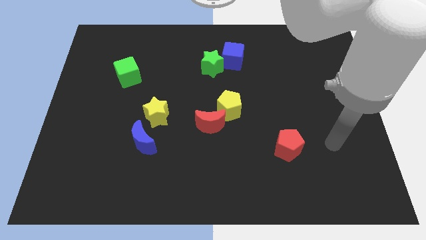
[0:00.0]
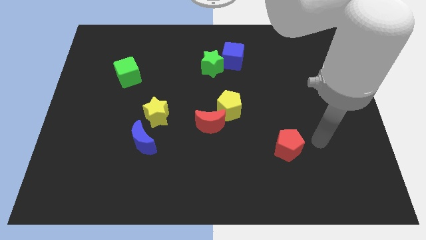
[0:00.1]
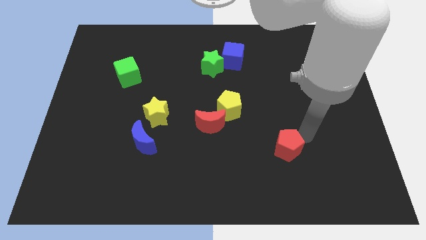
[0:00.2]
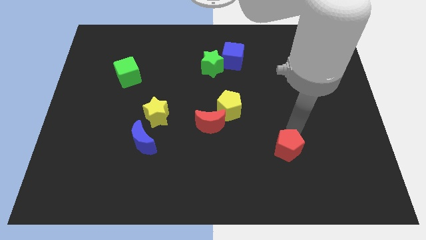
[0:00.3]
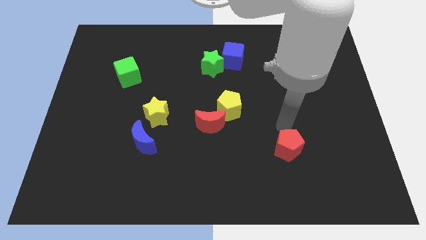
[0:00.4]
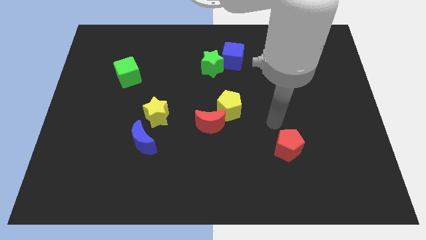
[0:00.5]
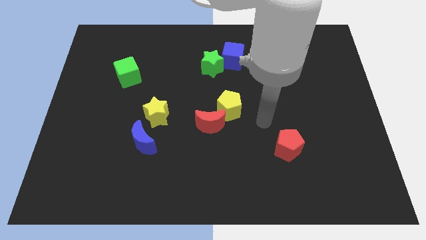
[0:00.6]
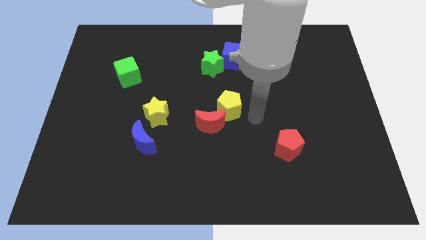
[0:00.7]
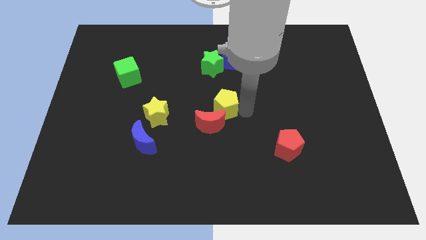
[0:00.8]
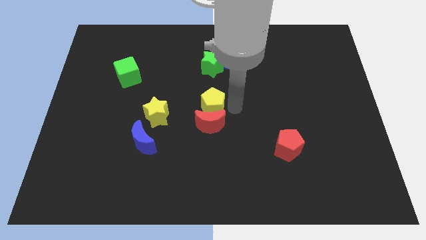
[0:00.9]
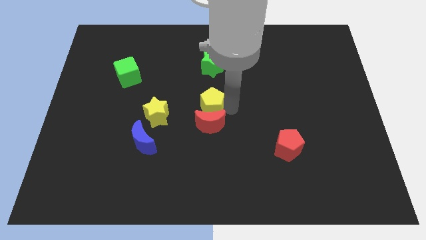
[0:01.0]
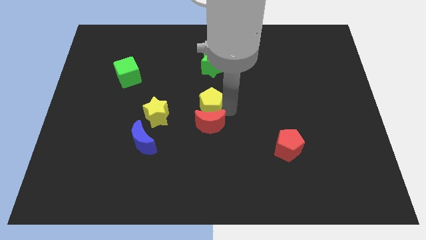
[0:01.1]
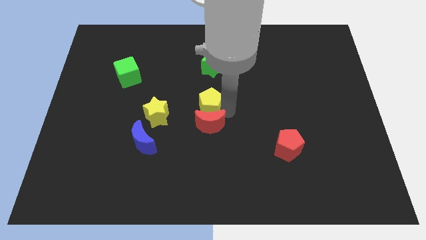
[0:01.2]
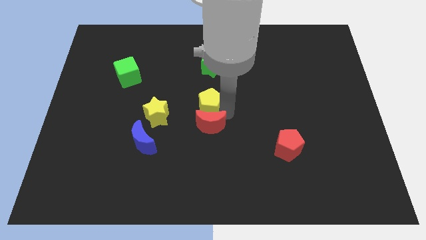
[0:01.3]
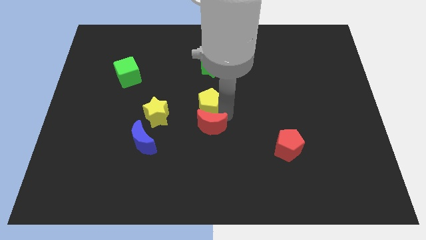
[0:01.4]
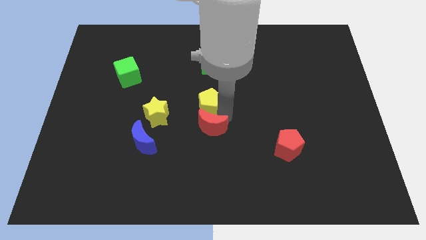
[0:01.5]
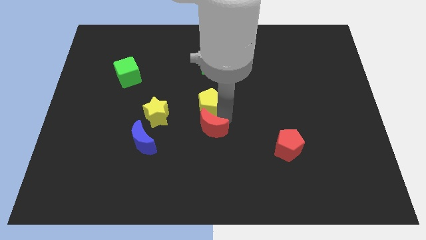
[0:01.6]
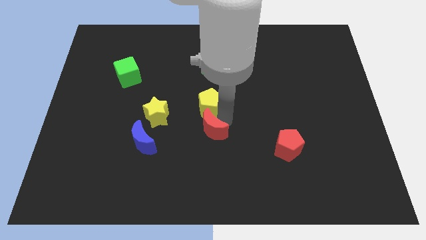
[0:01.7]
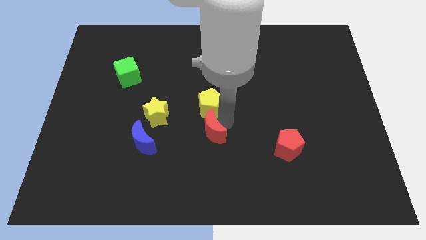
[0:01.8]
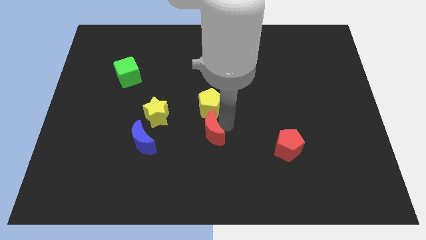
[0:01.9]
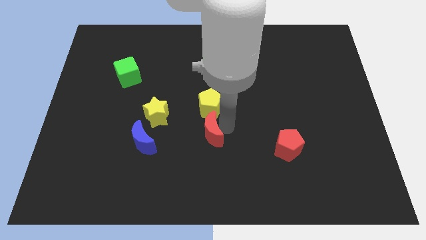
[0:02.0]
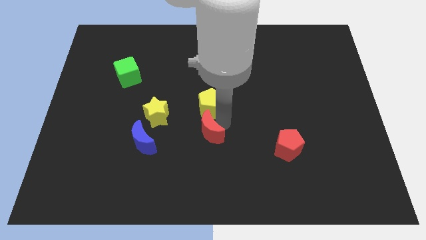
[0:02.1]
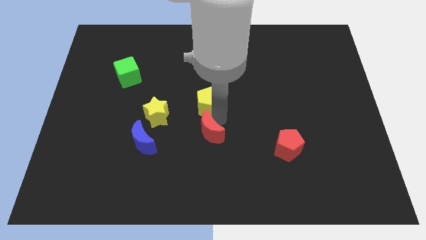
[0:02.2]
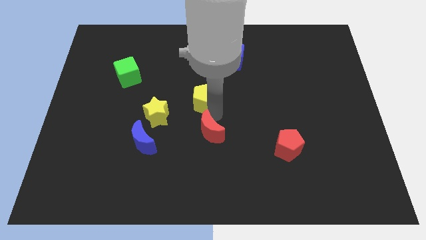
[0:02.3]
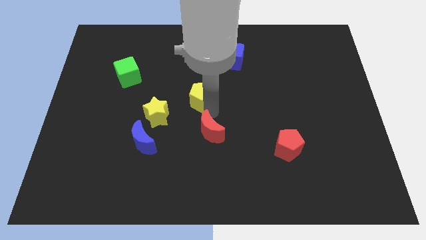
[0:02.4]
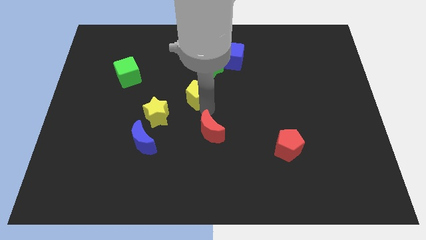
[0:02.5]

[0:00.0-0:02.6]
pull the red moon apart from the yellow pentagon

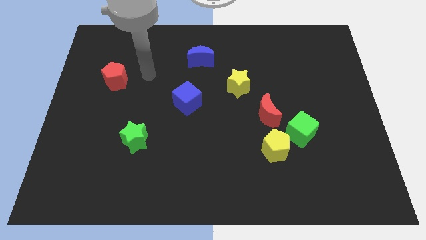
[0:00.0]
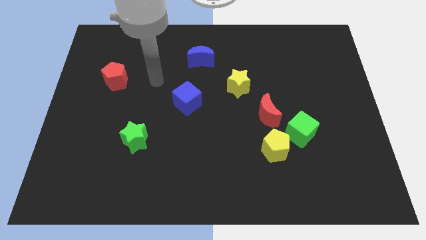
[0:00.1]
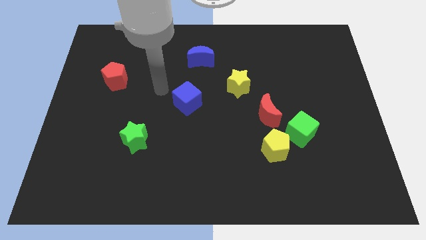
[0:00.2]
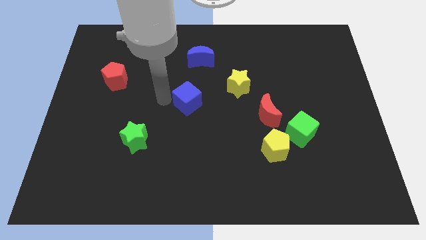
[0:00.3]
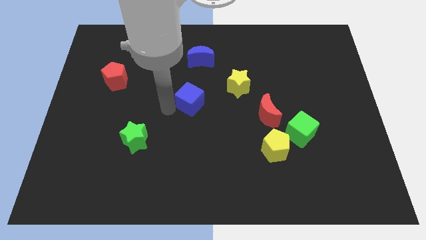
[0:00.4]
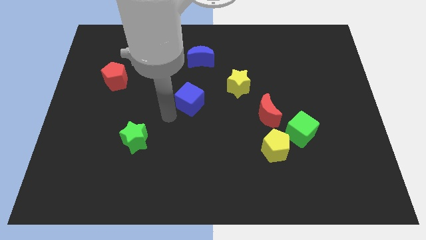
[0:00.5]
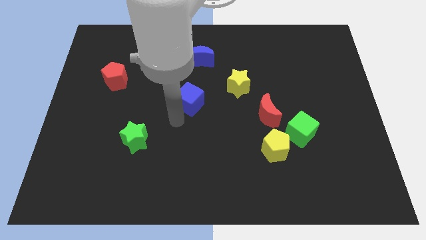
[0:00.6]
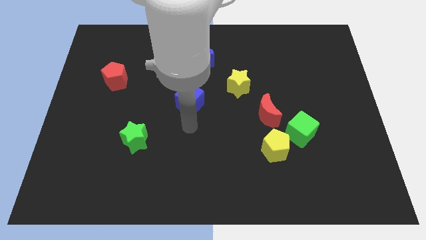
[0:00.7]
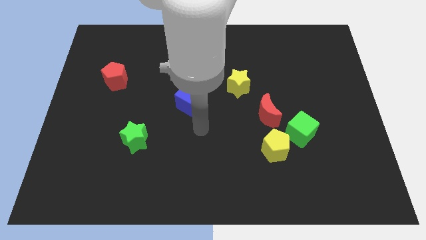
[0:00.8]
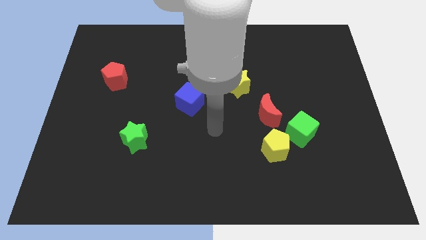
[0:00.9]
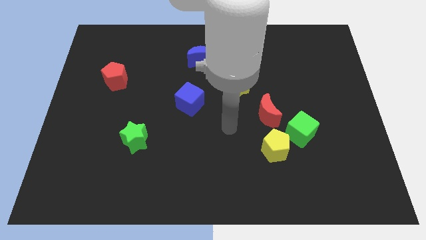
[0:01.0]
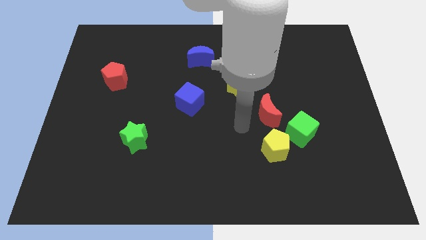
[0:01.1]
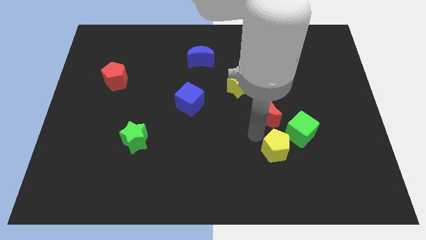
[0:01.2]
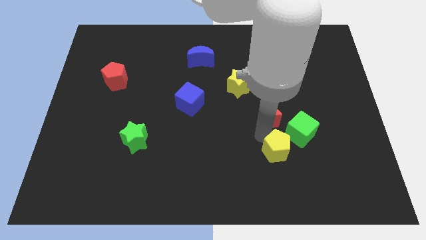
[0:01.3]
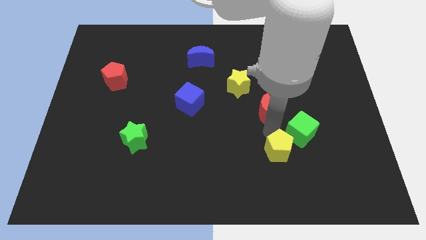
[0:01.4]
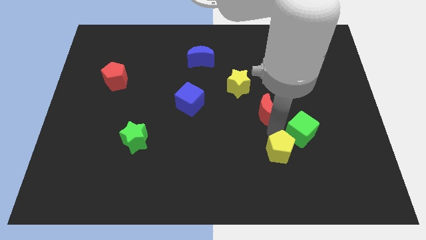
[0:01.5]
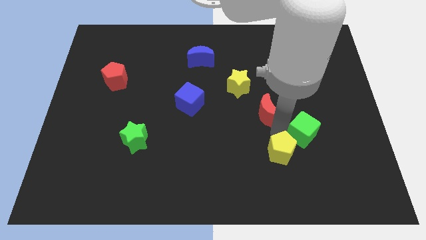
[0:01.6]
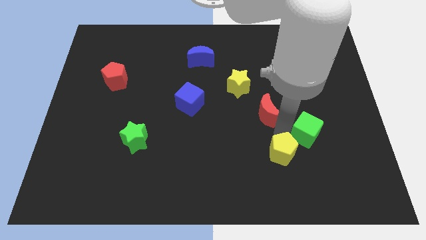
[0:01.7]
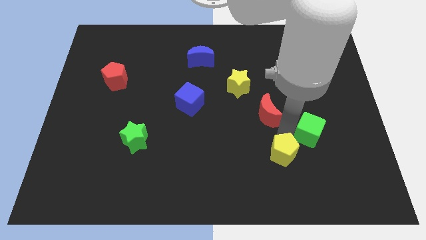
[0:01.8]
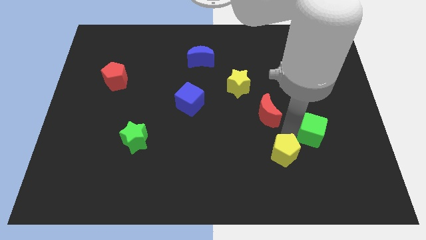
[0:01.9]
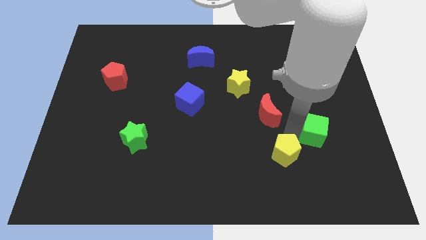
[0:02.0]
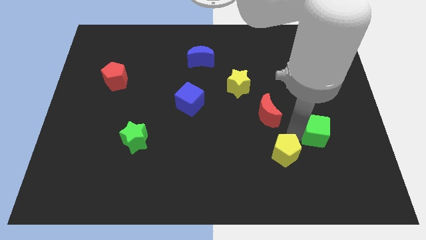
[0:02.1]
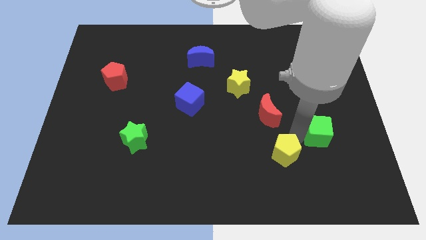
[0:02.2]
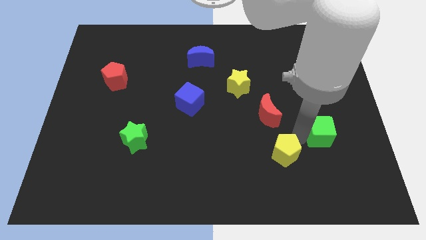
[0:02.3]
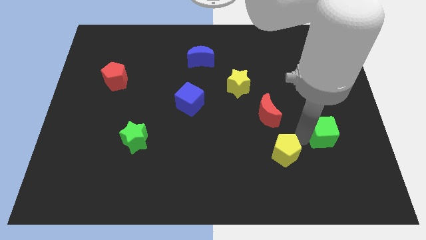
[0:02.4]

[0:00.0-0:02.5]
move the green cube away from the yellow pentagon and red moon

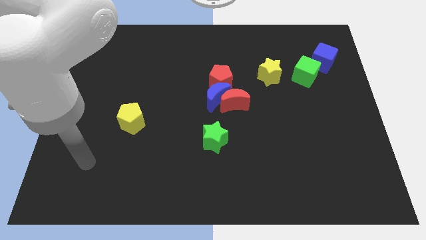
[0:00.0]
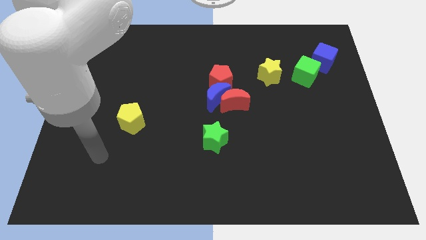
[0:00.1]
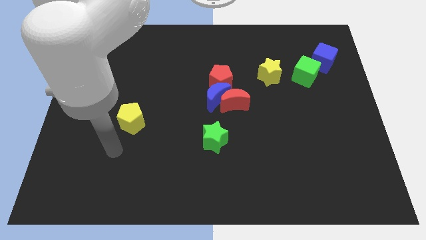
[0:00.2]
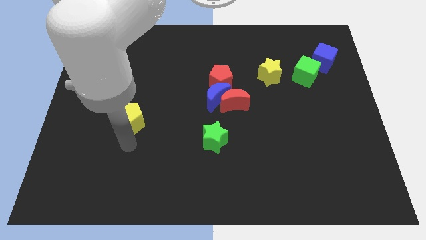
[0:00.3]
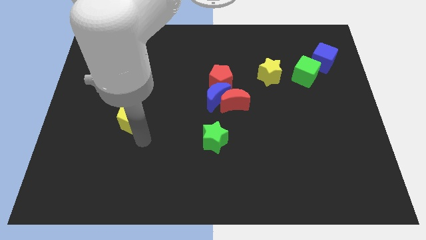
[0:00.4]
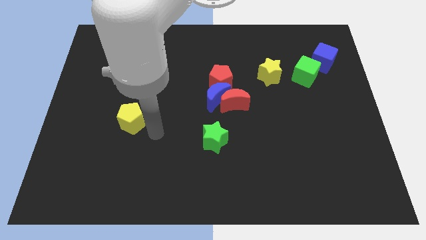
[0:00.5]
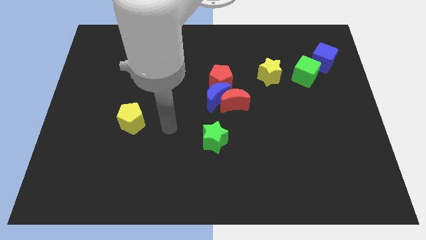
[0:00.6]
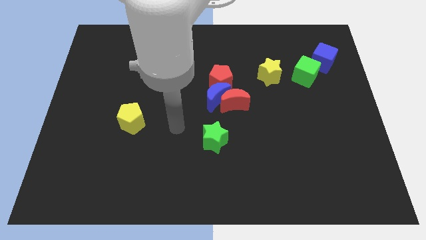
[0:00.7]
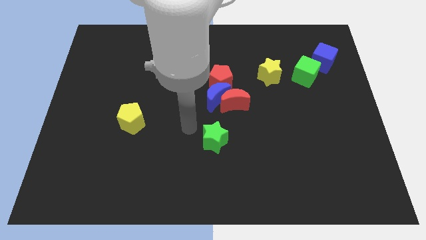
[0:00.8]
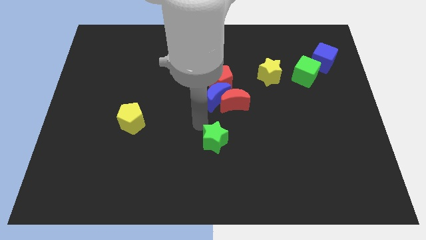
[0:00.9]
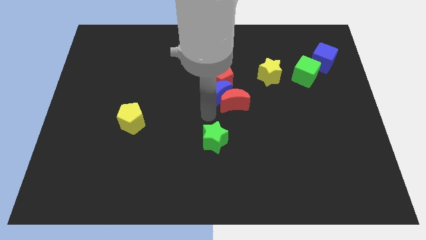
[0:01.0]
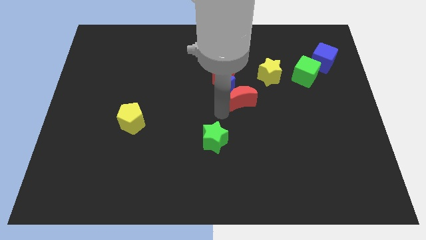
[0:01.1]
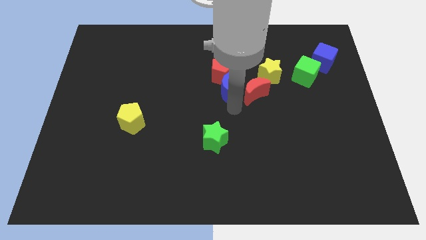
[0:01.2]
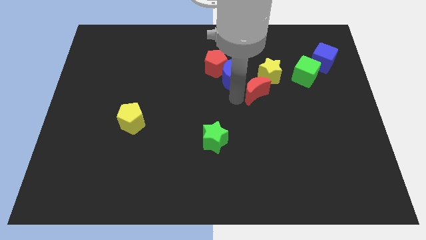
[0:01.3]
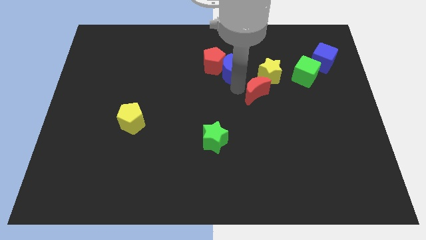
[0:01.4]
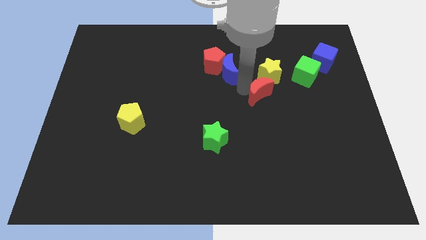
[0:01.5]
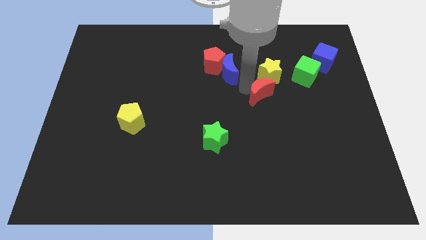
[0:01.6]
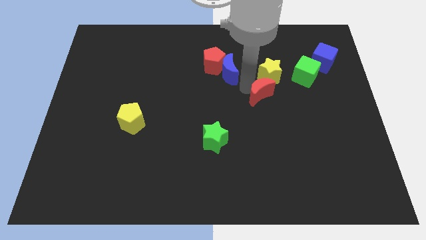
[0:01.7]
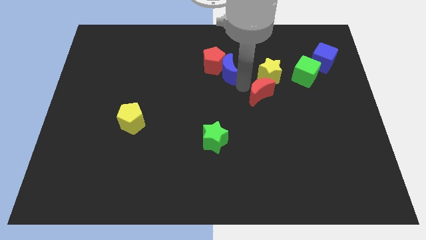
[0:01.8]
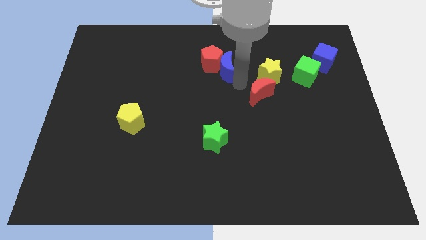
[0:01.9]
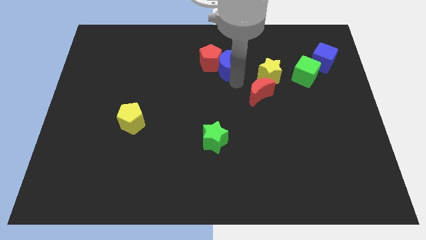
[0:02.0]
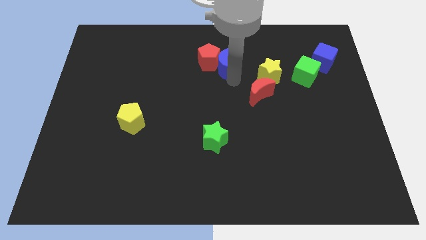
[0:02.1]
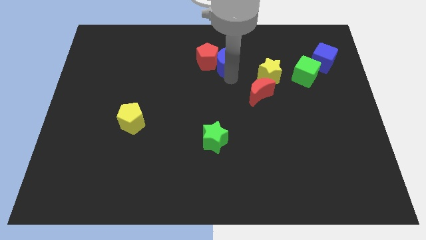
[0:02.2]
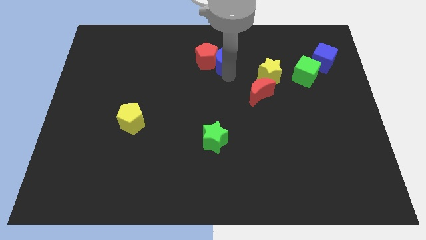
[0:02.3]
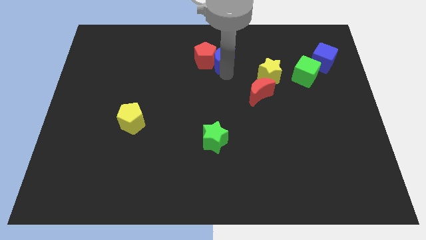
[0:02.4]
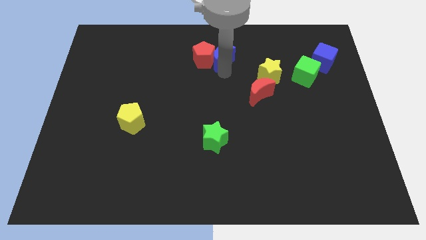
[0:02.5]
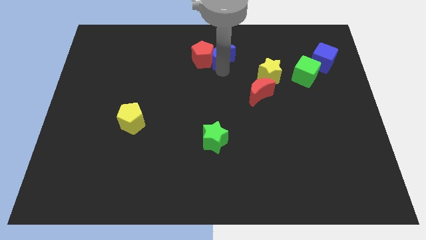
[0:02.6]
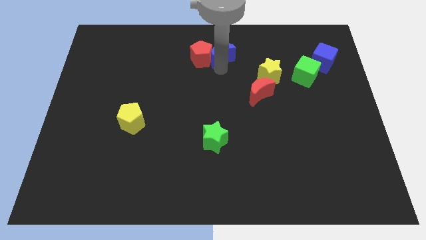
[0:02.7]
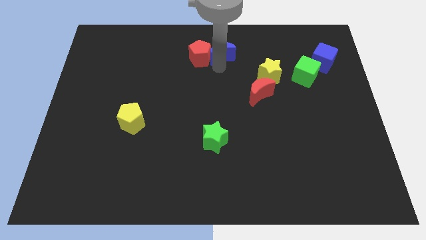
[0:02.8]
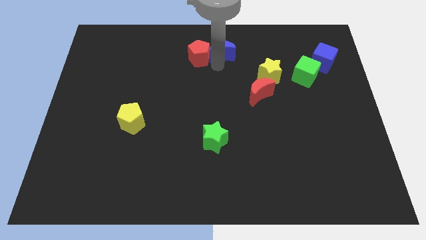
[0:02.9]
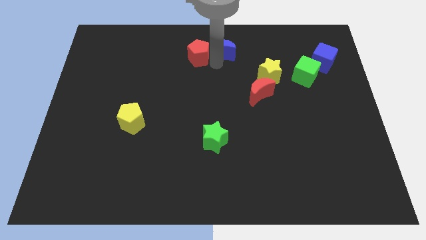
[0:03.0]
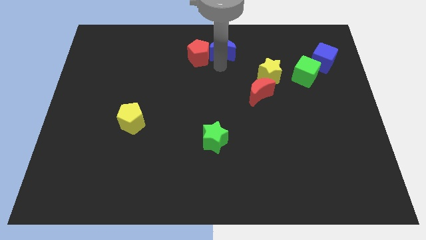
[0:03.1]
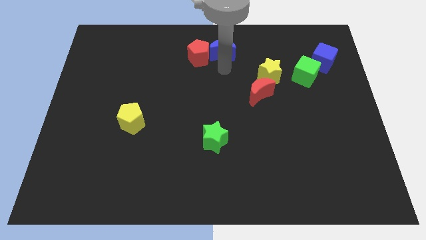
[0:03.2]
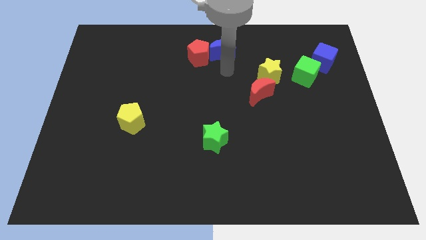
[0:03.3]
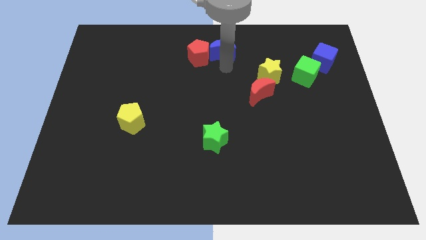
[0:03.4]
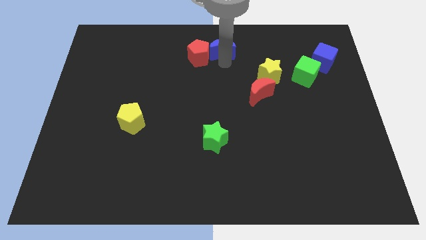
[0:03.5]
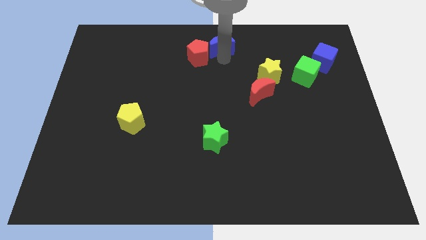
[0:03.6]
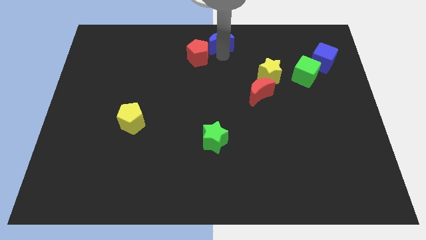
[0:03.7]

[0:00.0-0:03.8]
pull the blue moon apart from the red moon and red pentagon

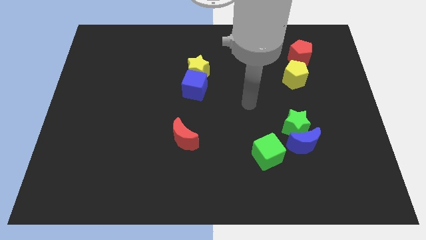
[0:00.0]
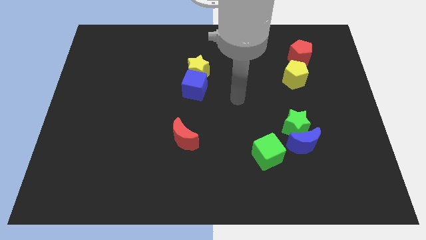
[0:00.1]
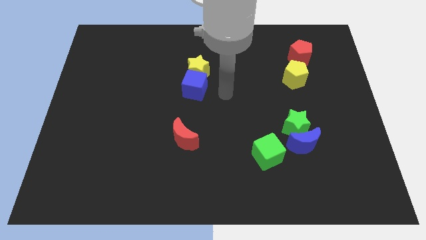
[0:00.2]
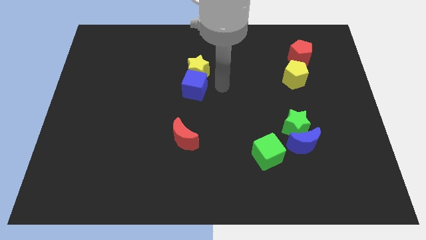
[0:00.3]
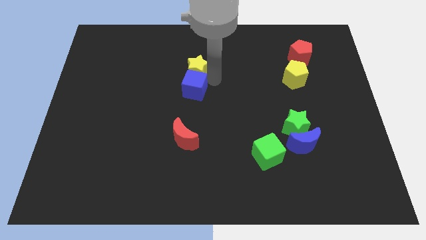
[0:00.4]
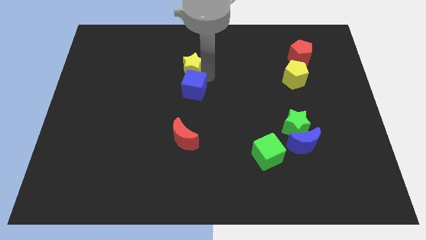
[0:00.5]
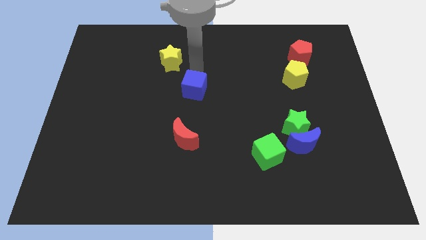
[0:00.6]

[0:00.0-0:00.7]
separate the blue cube from the yellow star
